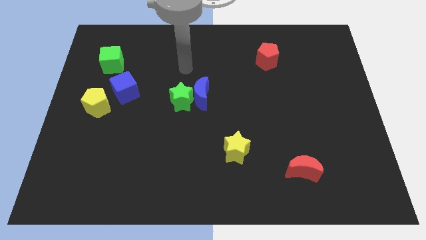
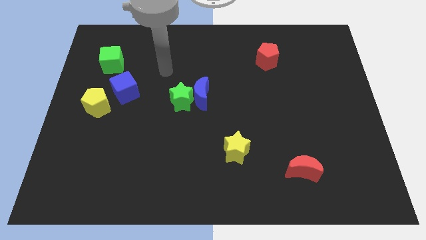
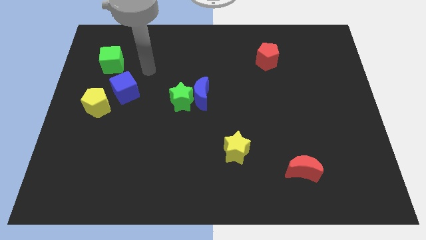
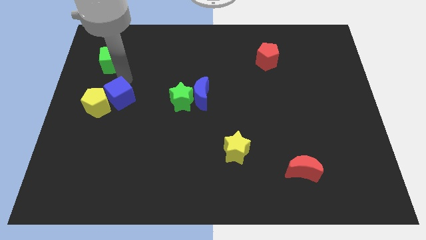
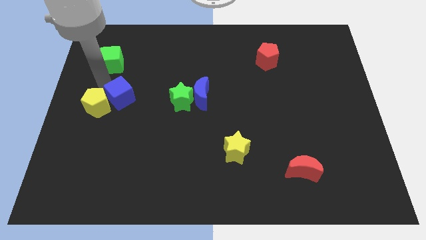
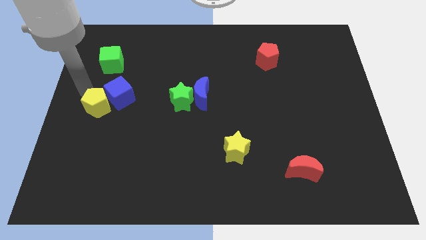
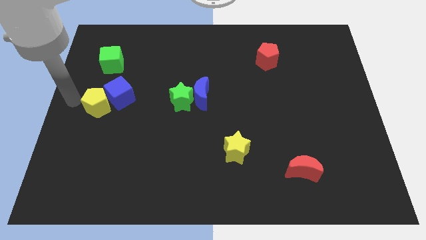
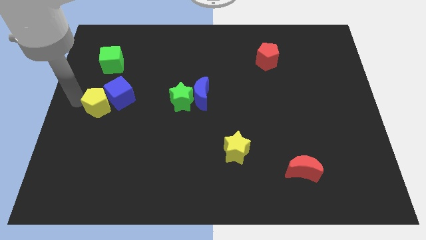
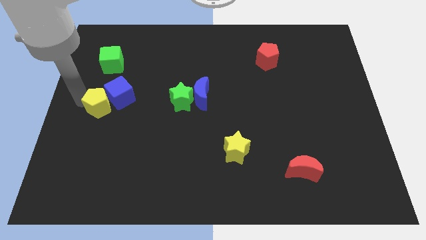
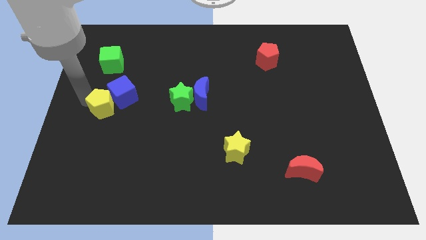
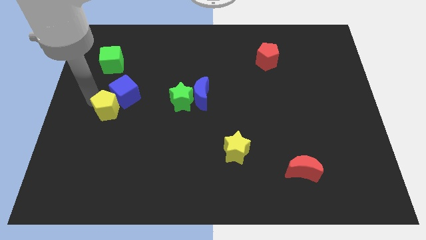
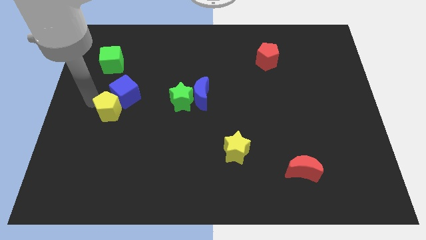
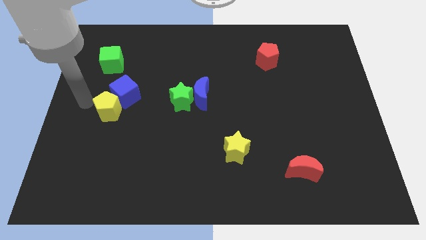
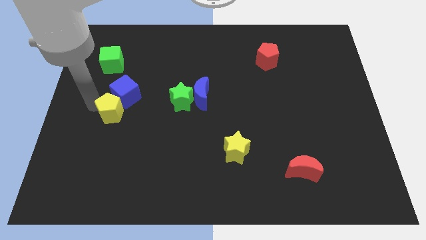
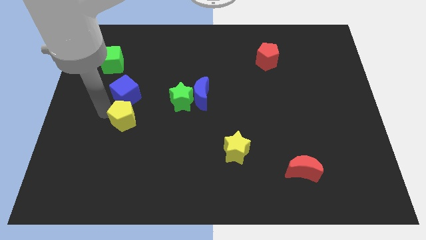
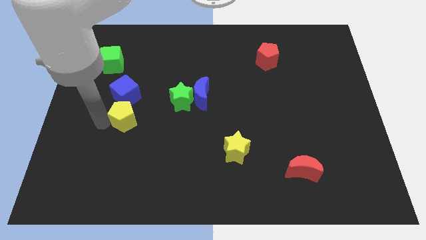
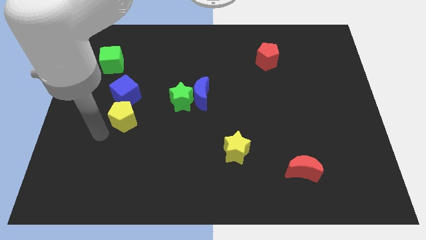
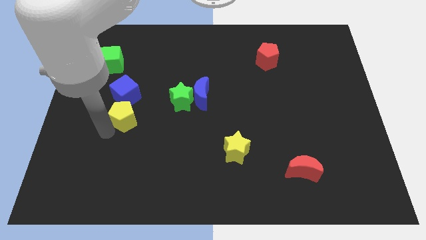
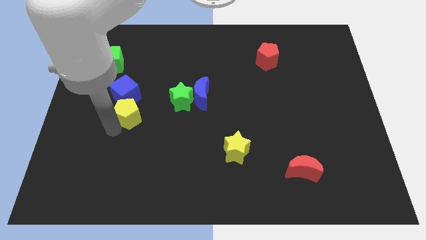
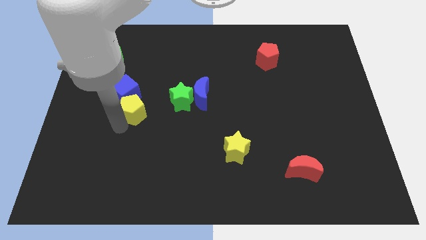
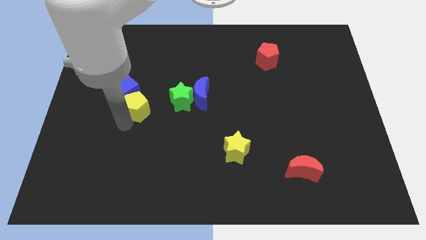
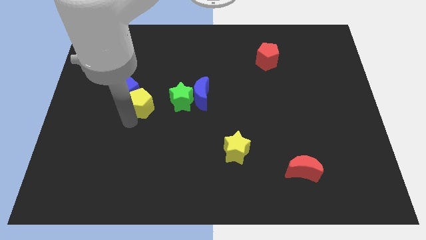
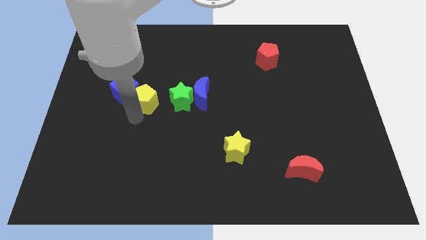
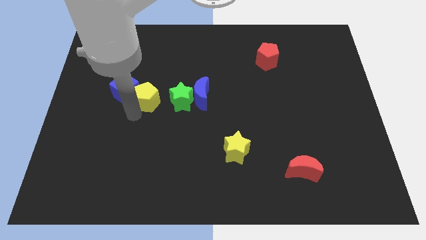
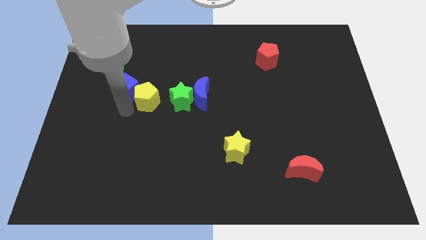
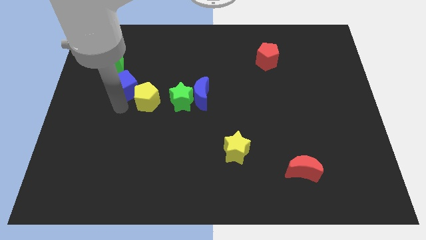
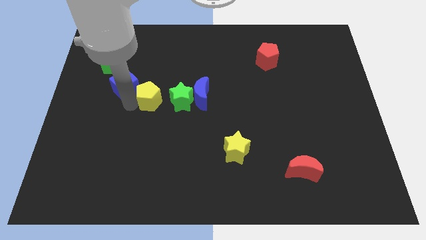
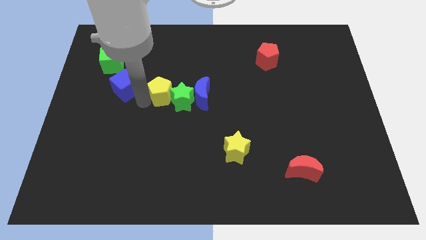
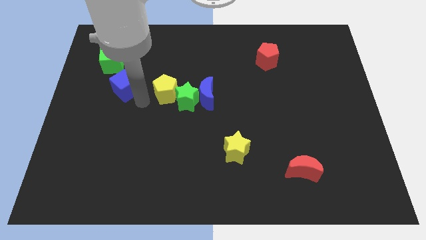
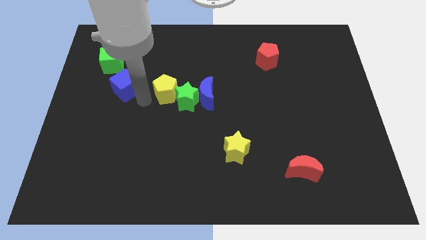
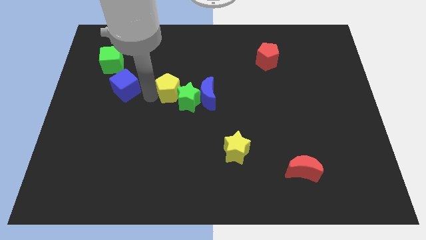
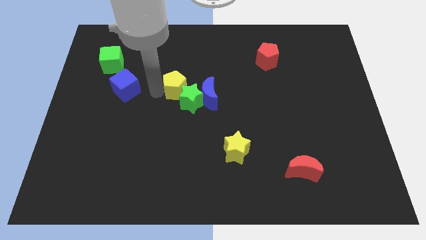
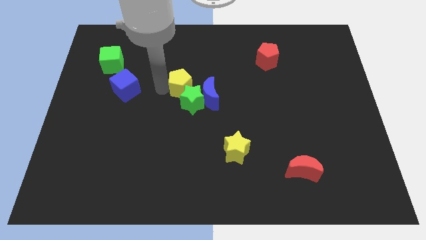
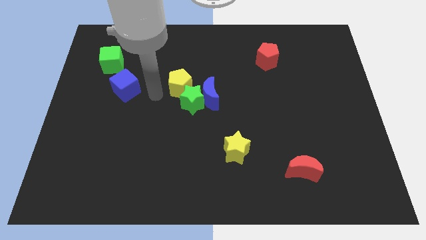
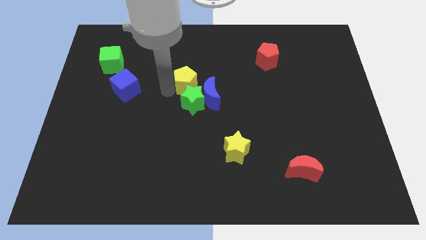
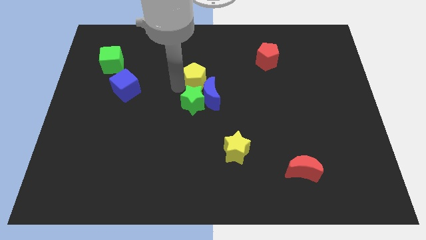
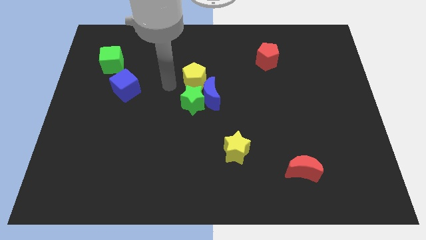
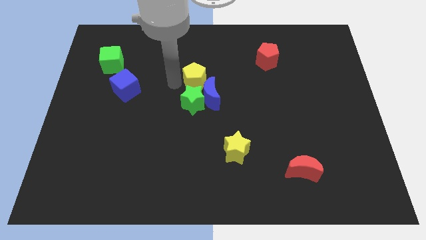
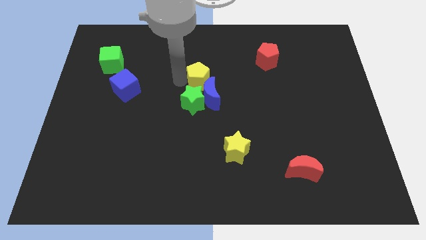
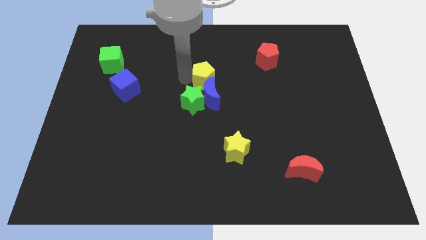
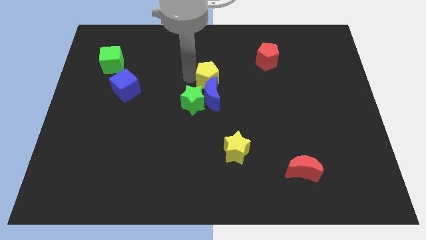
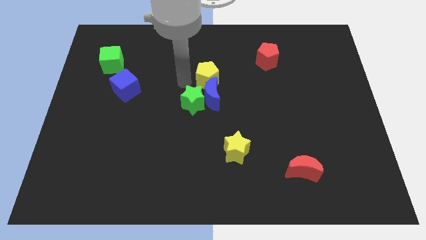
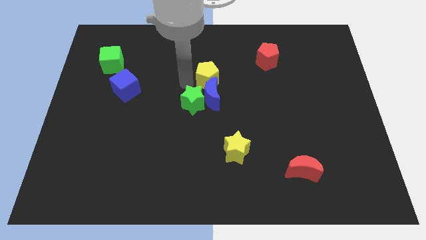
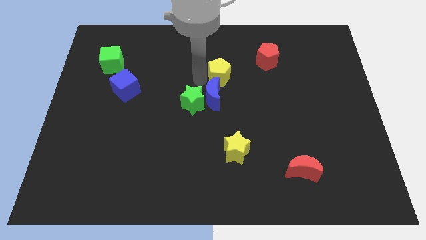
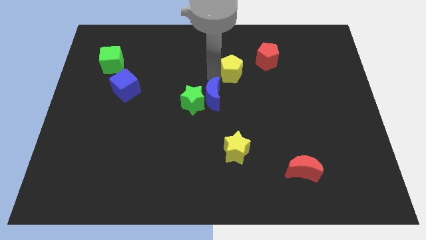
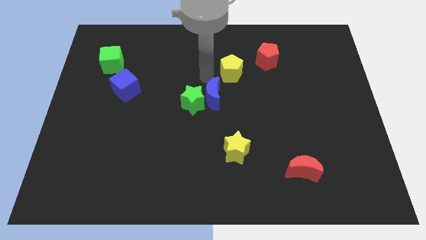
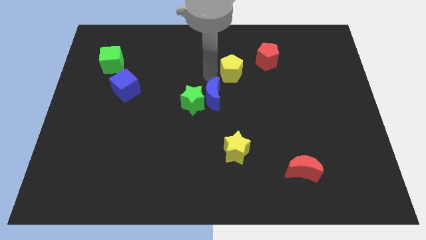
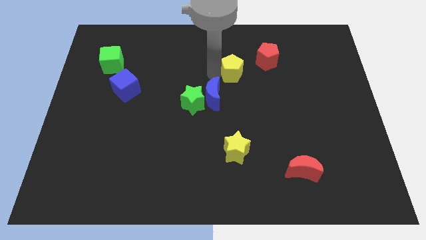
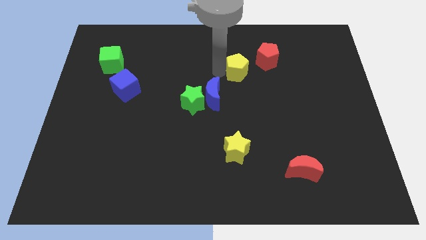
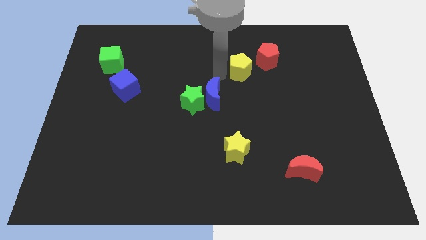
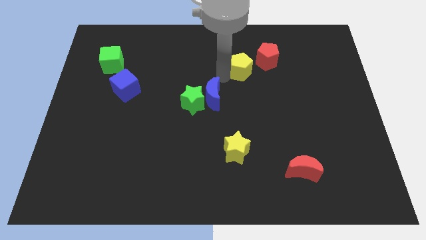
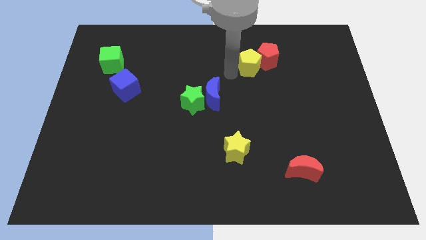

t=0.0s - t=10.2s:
slide the yellow pentagon to the red pentagon

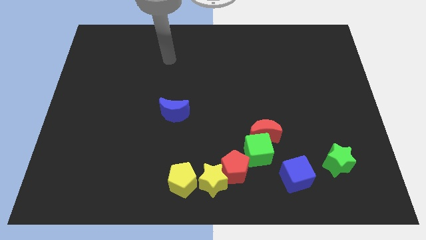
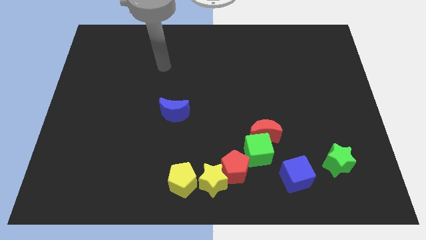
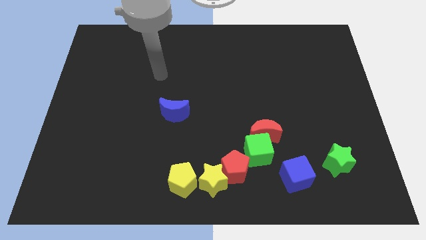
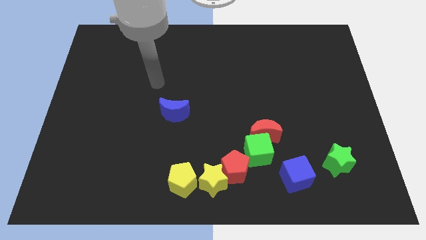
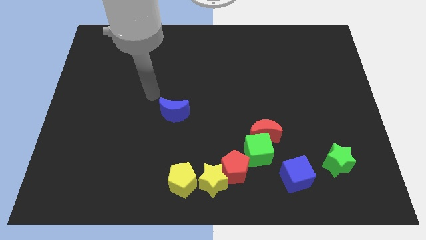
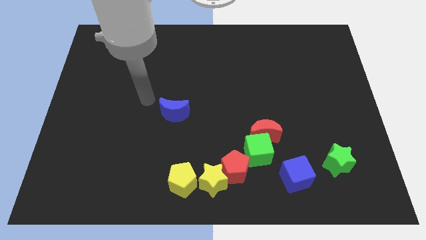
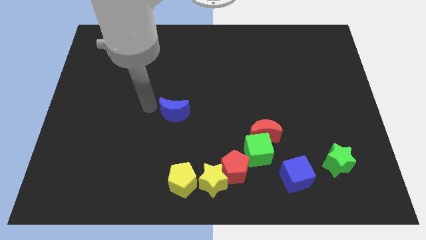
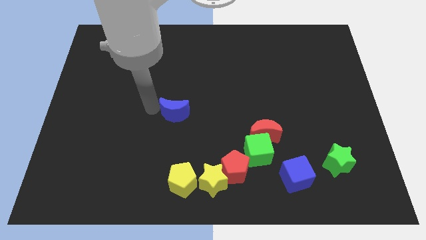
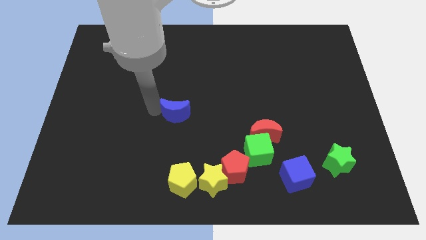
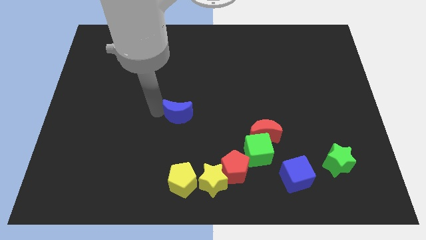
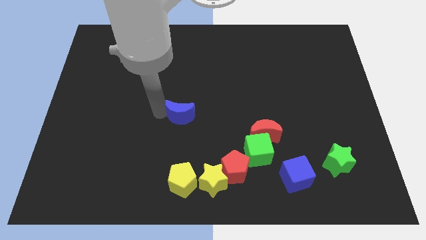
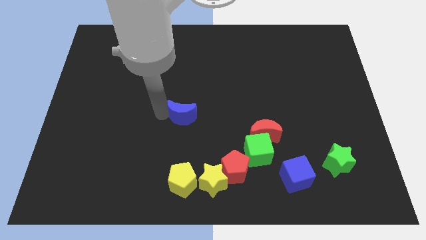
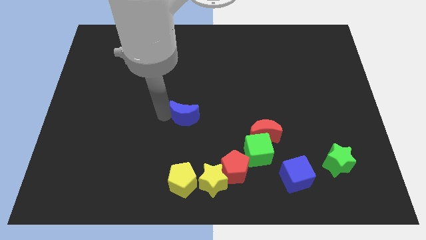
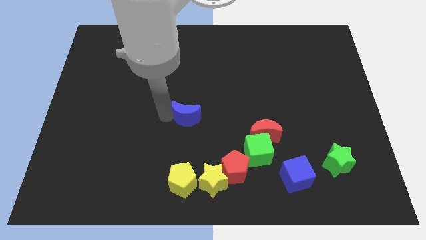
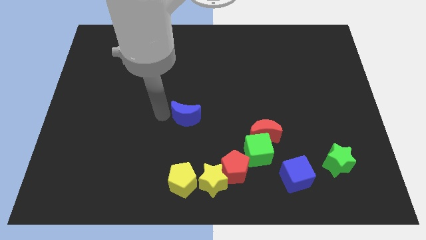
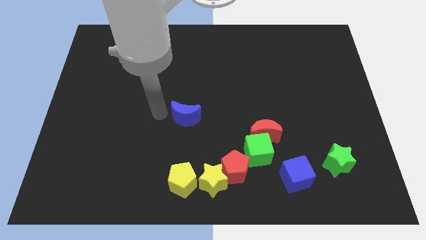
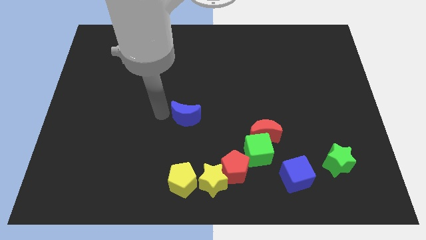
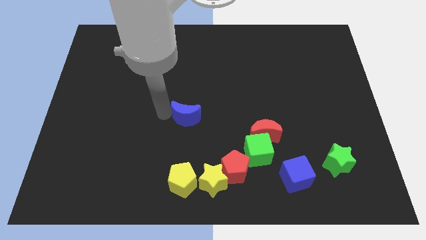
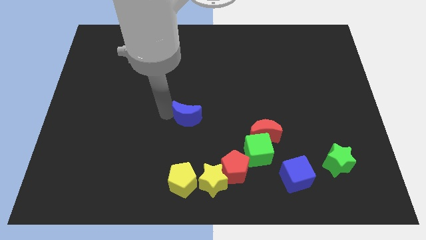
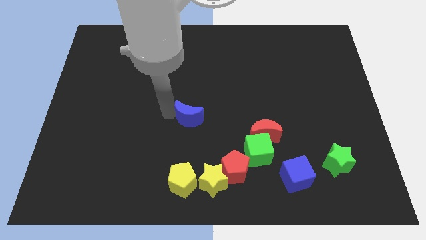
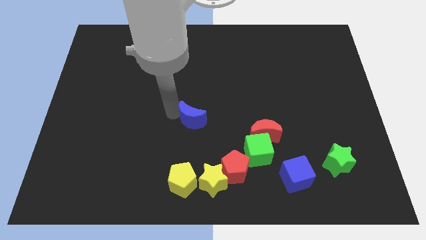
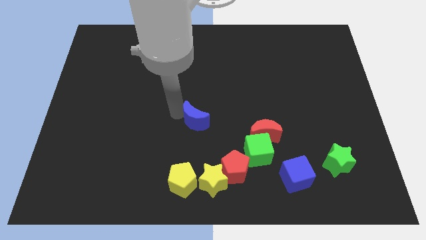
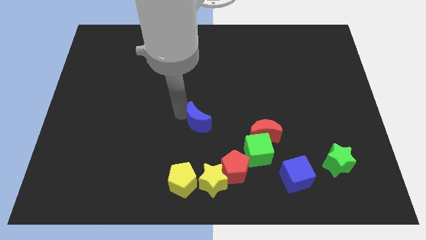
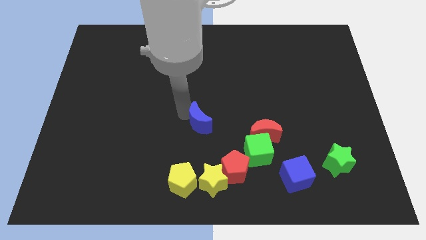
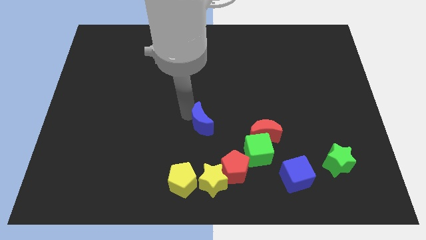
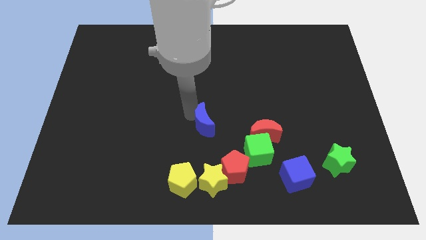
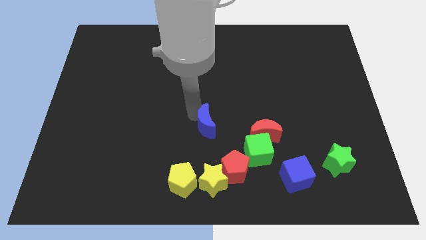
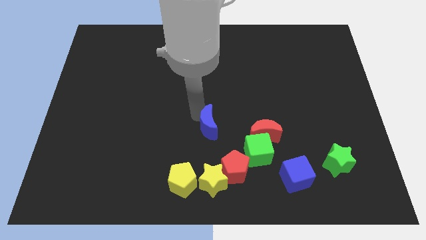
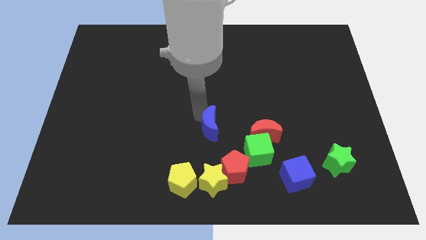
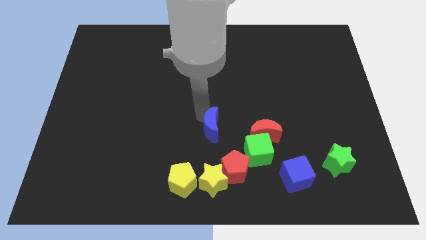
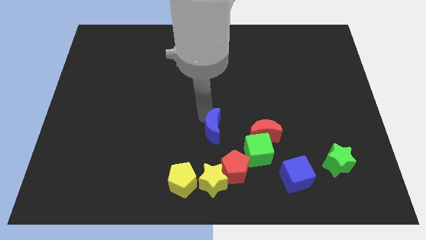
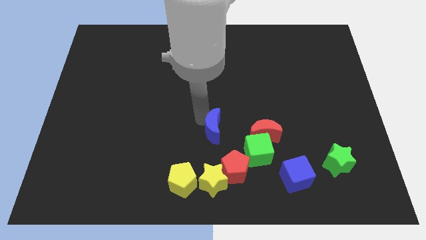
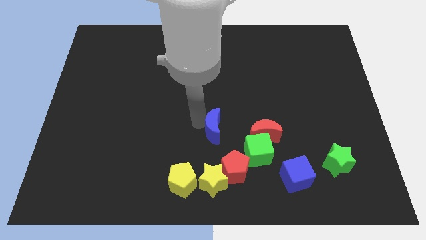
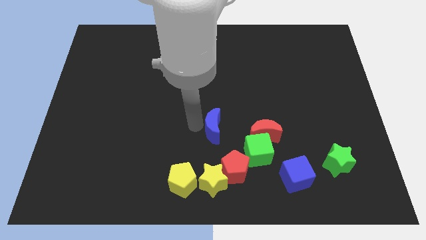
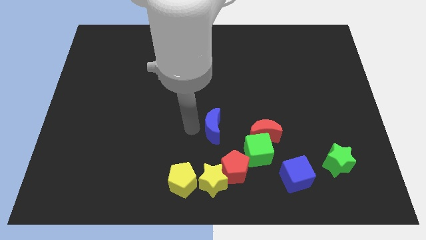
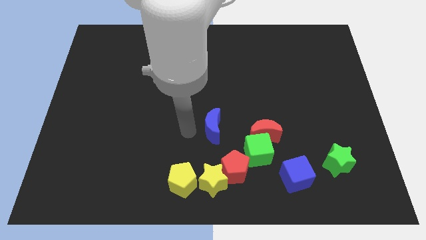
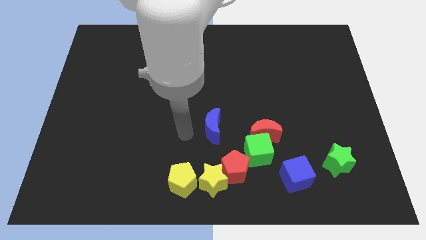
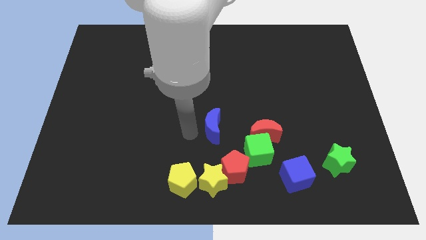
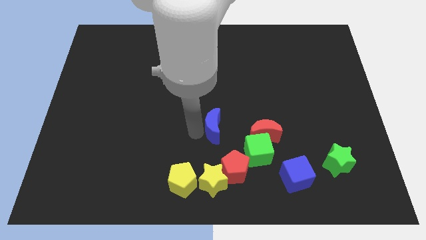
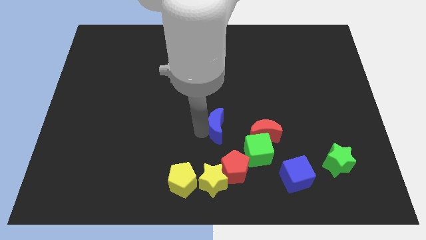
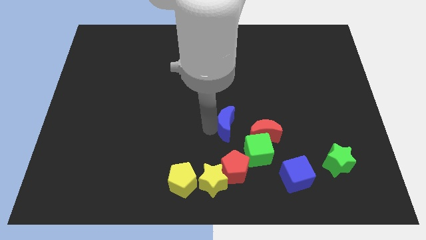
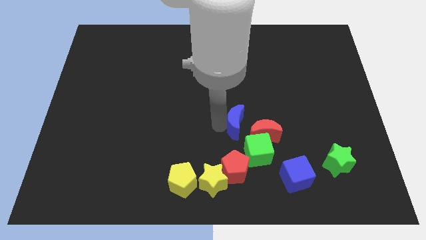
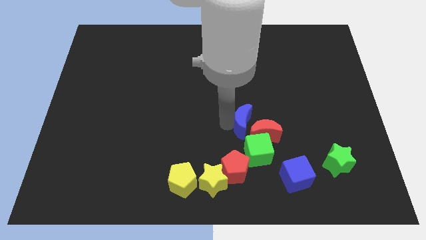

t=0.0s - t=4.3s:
push the blue moon close to the red moon
